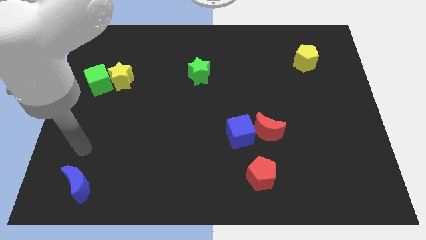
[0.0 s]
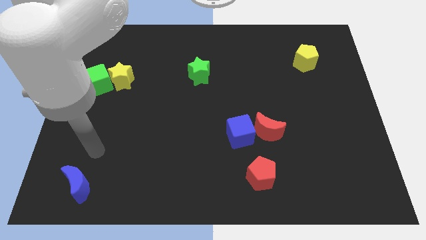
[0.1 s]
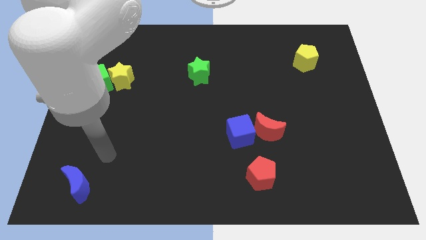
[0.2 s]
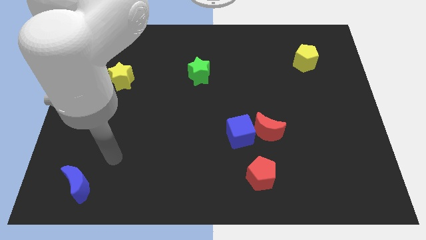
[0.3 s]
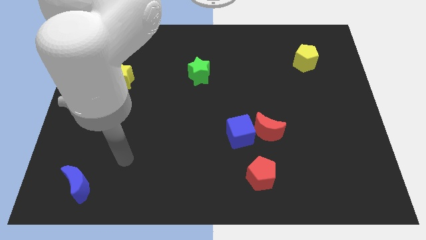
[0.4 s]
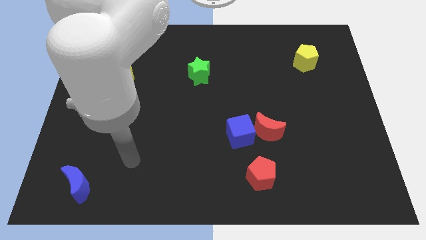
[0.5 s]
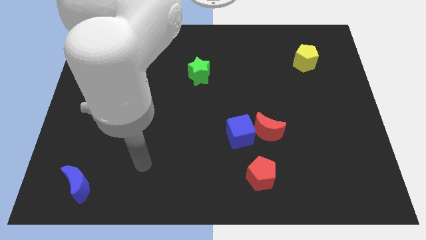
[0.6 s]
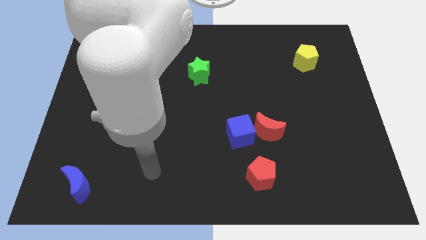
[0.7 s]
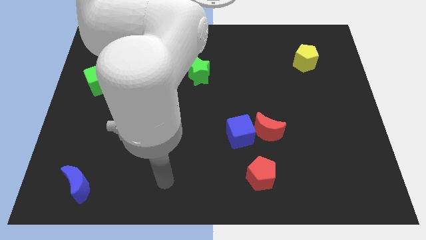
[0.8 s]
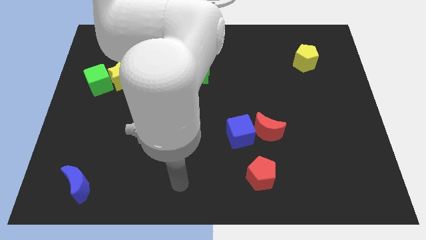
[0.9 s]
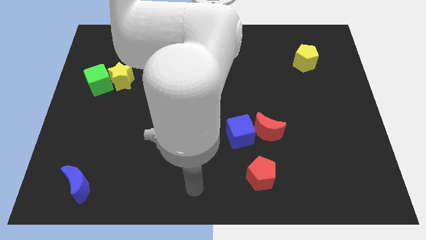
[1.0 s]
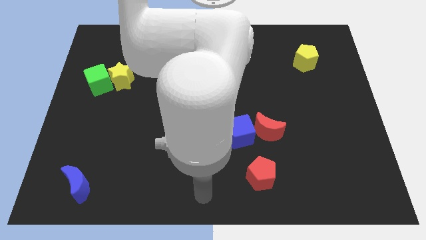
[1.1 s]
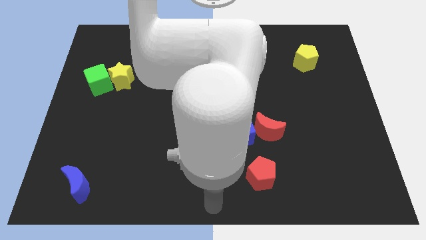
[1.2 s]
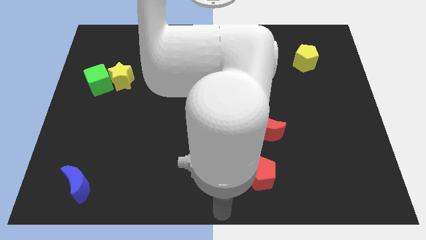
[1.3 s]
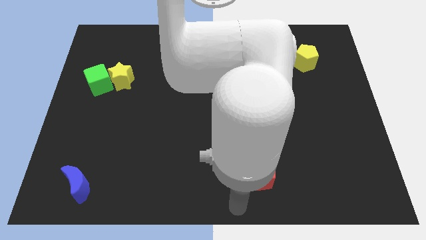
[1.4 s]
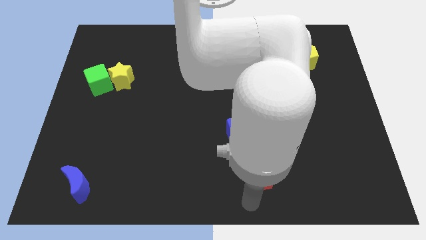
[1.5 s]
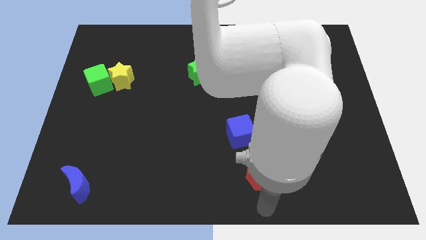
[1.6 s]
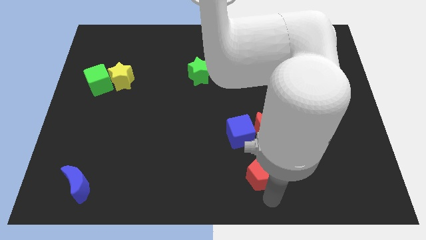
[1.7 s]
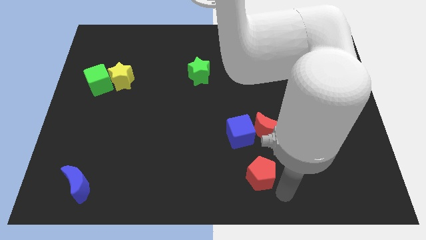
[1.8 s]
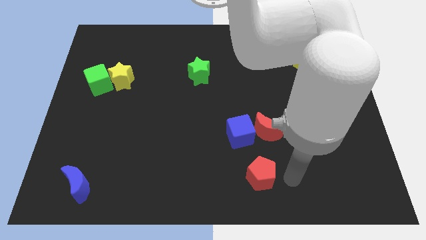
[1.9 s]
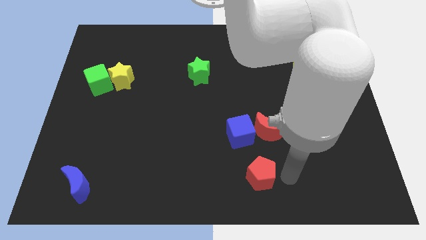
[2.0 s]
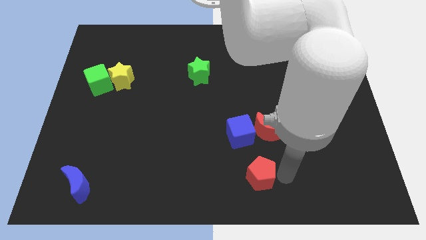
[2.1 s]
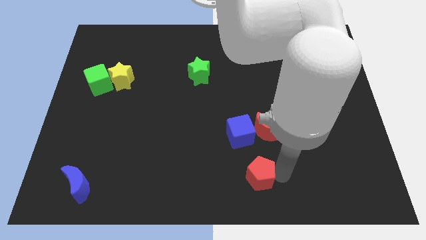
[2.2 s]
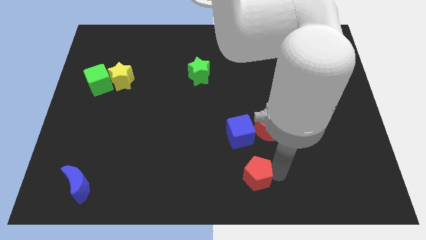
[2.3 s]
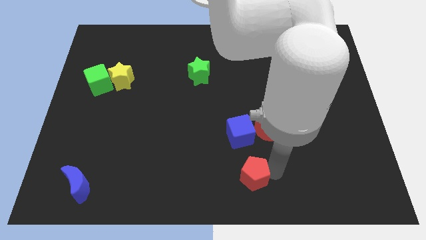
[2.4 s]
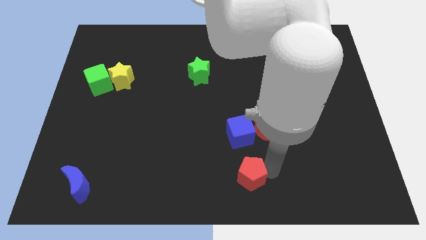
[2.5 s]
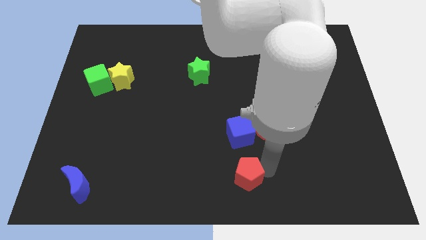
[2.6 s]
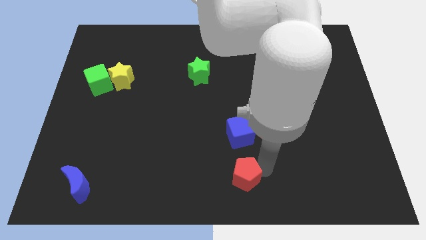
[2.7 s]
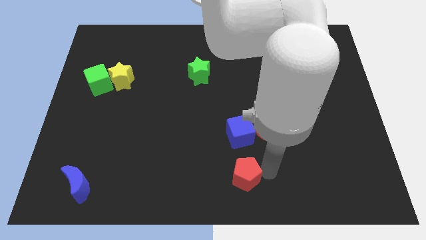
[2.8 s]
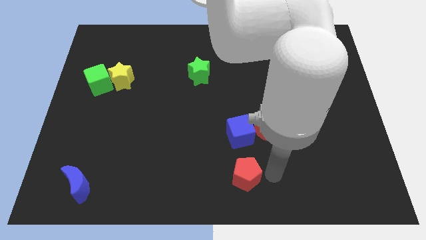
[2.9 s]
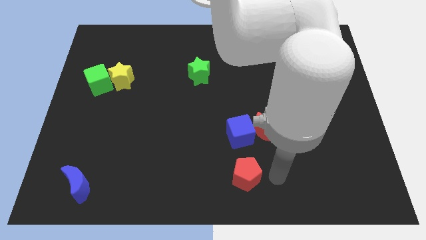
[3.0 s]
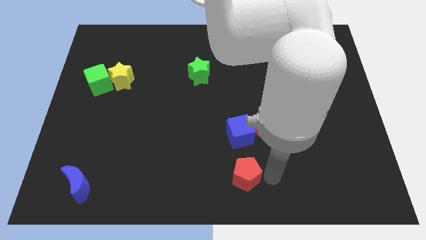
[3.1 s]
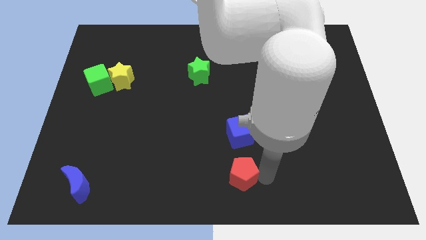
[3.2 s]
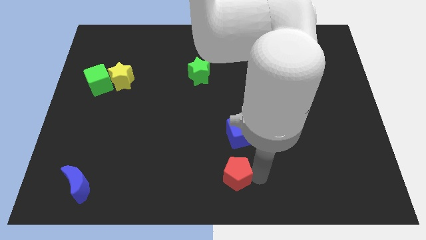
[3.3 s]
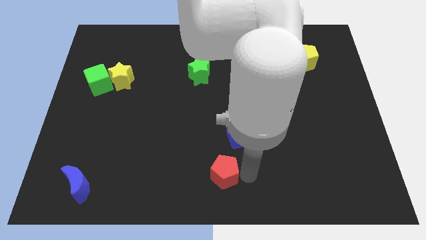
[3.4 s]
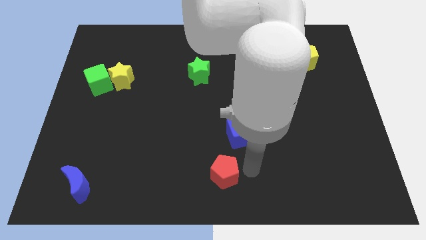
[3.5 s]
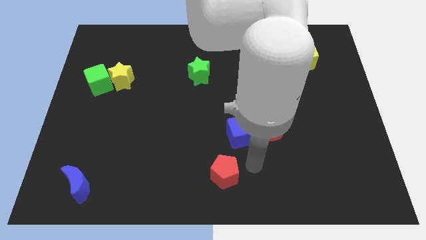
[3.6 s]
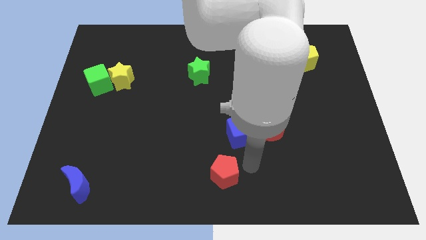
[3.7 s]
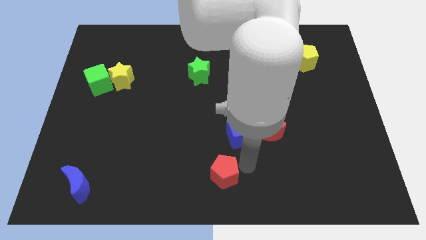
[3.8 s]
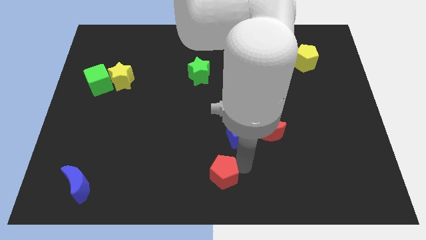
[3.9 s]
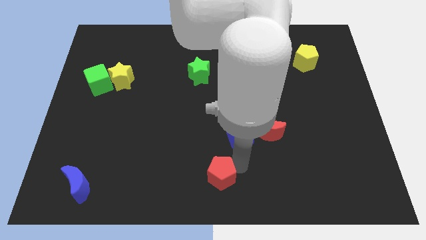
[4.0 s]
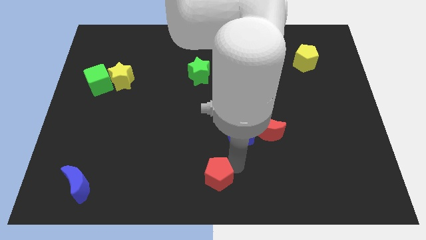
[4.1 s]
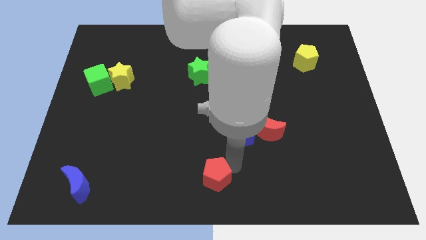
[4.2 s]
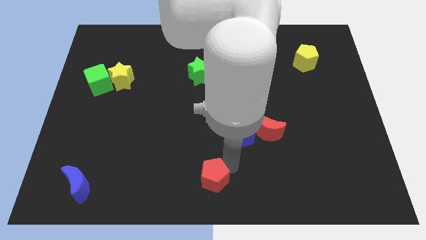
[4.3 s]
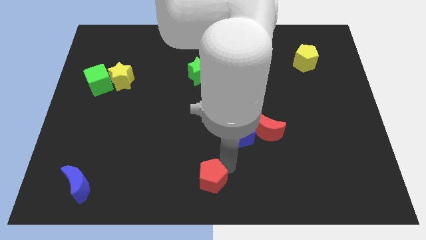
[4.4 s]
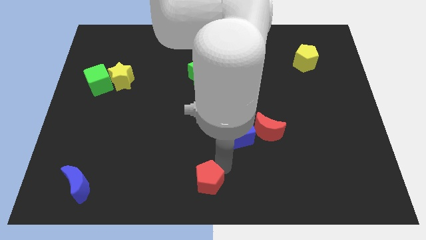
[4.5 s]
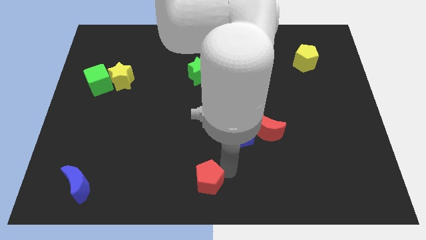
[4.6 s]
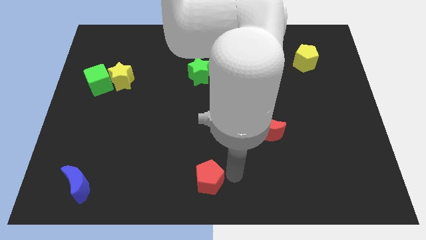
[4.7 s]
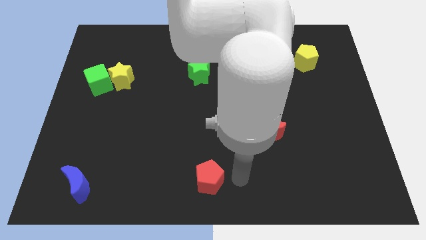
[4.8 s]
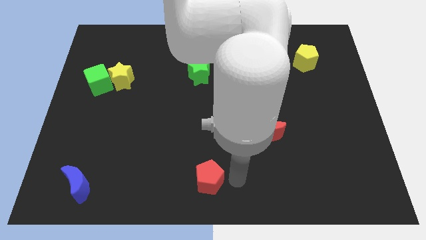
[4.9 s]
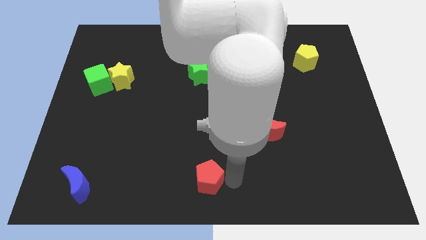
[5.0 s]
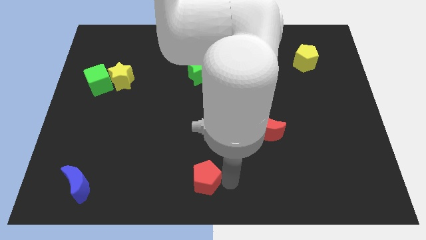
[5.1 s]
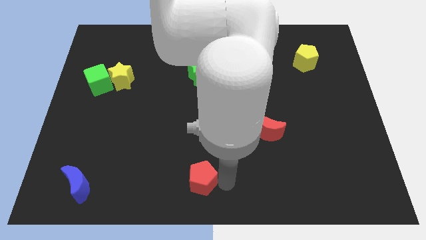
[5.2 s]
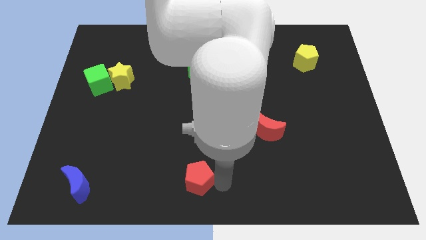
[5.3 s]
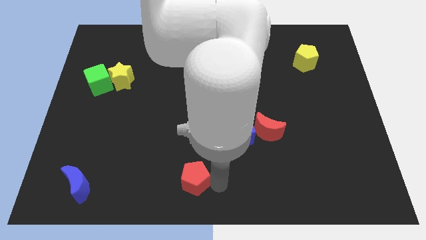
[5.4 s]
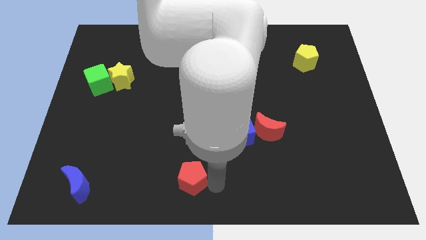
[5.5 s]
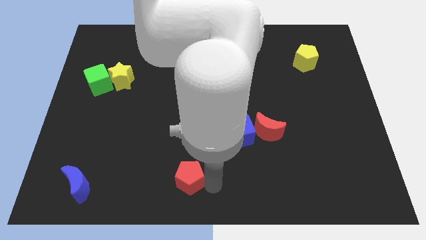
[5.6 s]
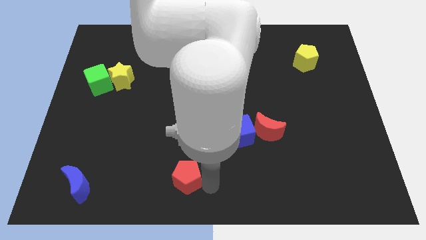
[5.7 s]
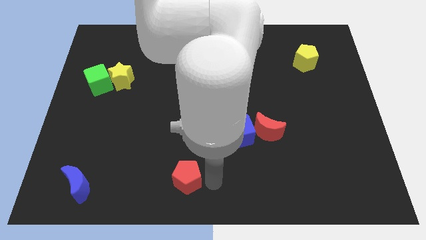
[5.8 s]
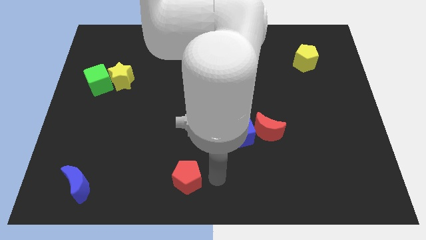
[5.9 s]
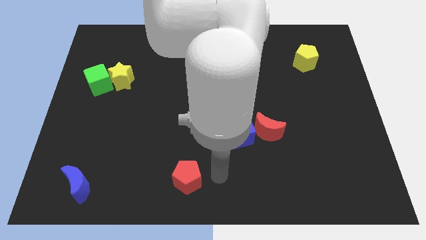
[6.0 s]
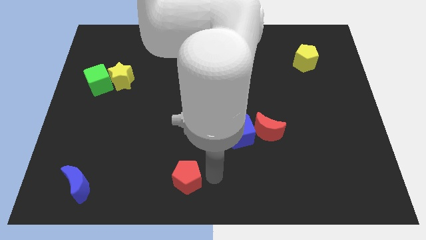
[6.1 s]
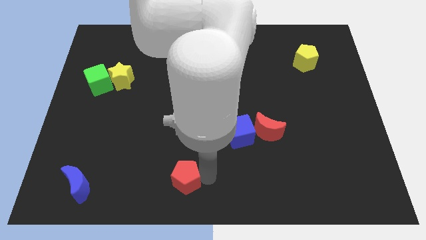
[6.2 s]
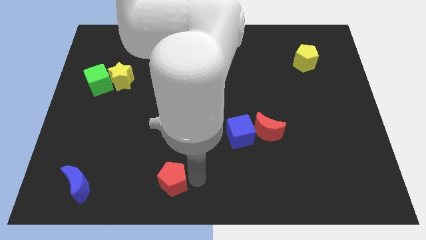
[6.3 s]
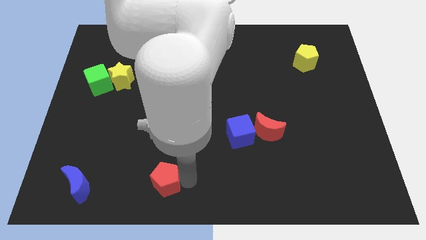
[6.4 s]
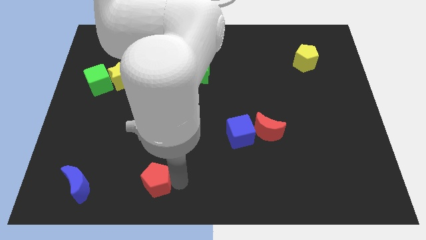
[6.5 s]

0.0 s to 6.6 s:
move the red pentagon to the left

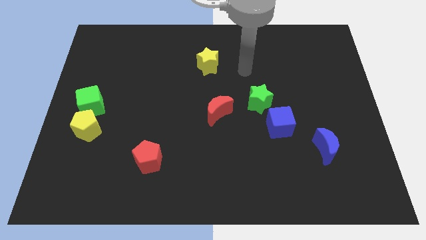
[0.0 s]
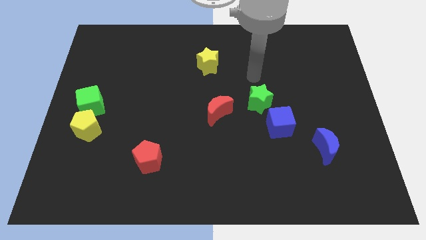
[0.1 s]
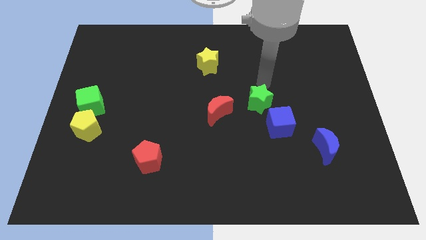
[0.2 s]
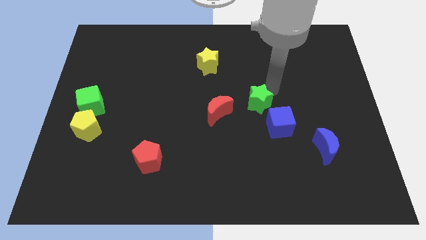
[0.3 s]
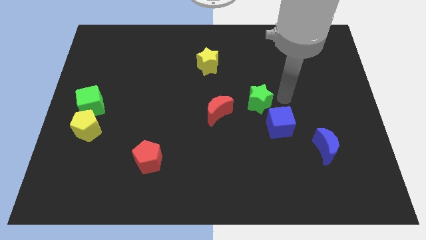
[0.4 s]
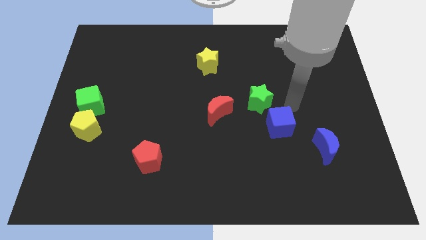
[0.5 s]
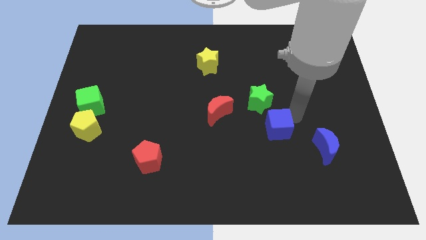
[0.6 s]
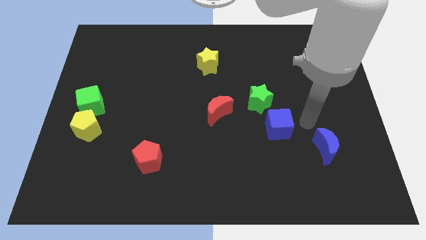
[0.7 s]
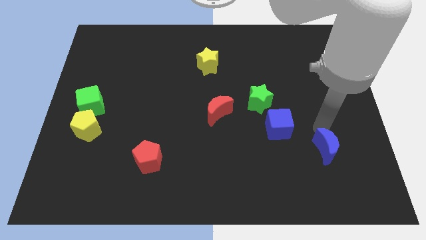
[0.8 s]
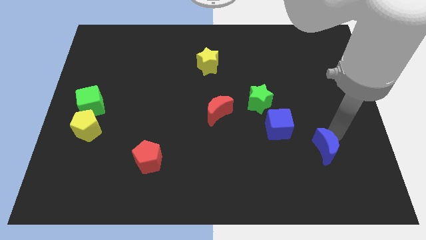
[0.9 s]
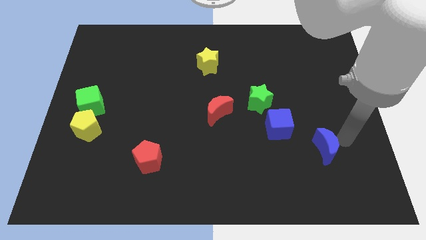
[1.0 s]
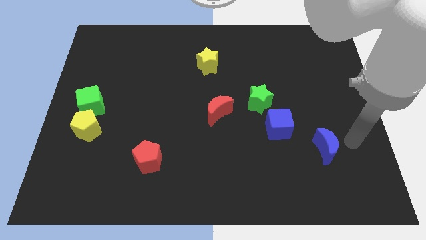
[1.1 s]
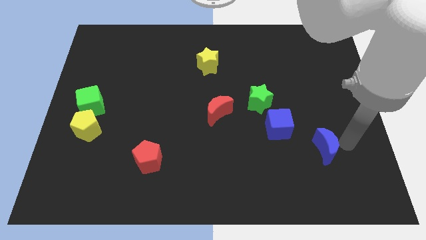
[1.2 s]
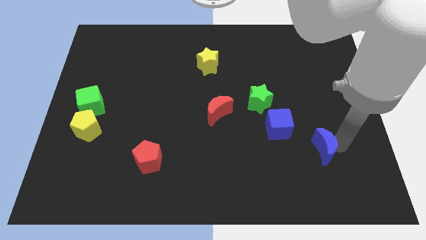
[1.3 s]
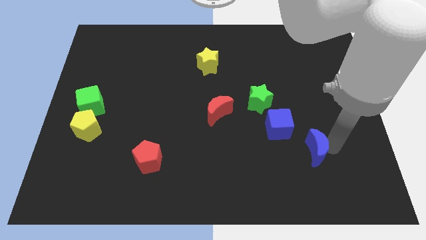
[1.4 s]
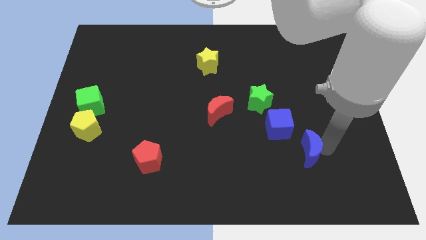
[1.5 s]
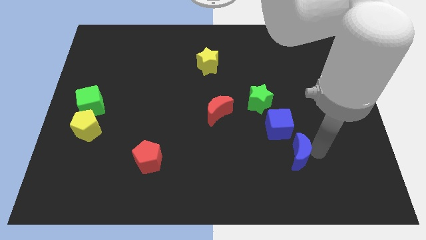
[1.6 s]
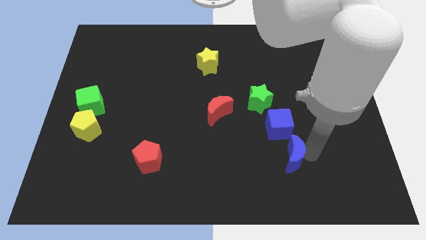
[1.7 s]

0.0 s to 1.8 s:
slide the blue moon slightly to the left

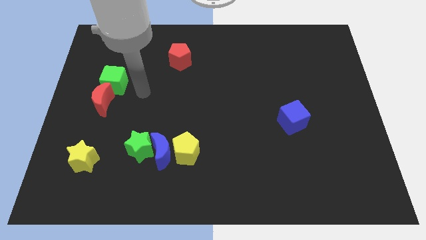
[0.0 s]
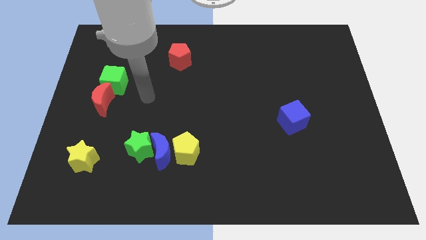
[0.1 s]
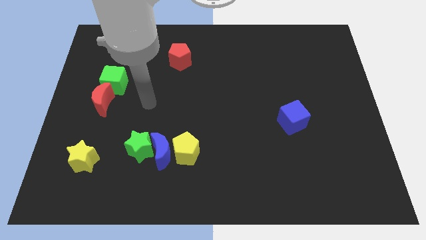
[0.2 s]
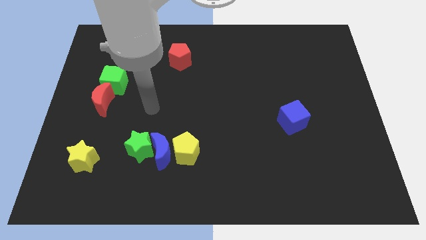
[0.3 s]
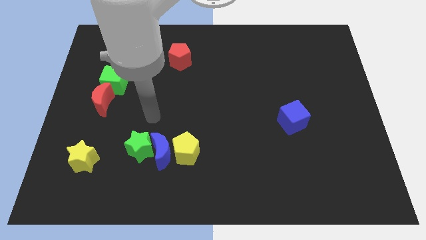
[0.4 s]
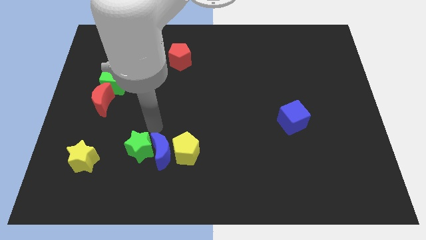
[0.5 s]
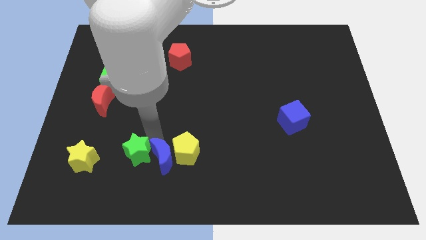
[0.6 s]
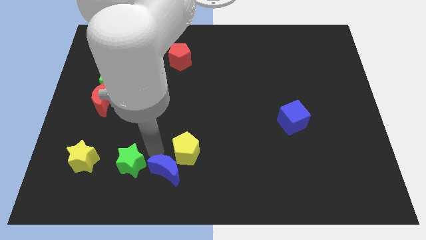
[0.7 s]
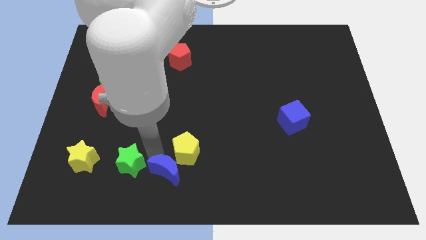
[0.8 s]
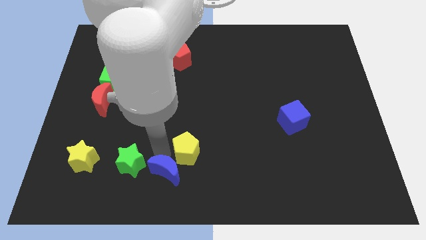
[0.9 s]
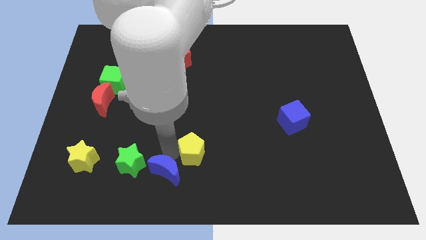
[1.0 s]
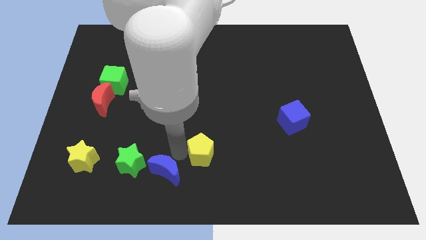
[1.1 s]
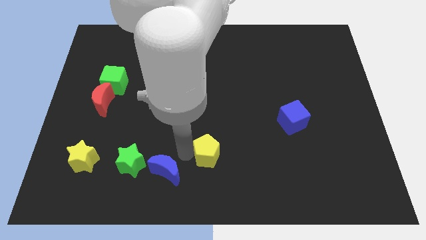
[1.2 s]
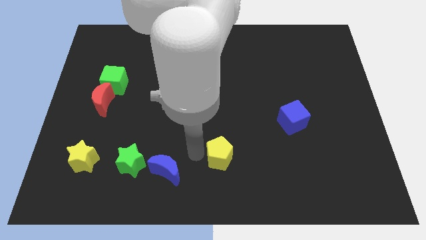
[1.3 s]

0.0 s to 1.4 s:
slide the yellow pentagon to the right a little
